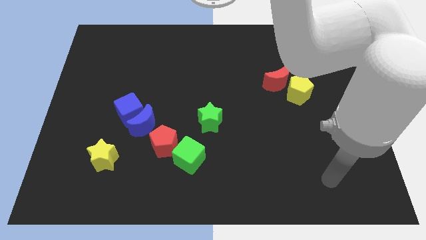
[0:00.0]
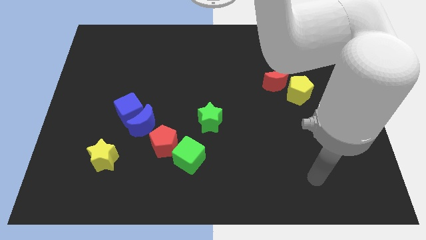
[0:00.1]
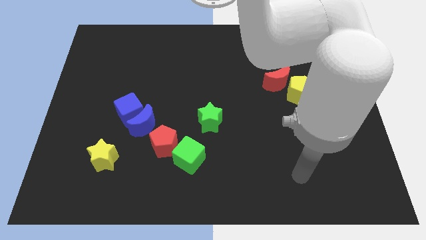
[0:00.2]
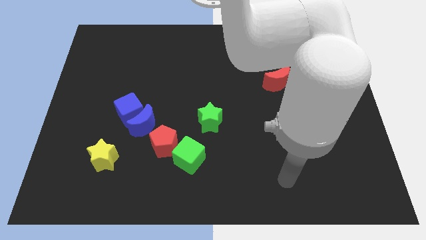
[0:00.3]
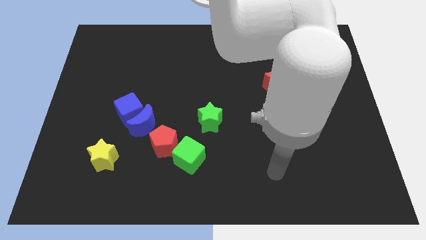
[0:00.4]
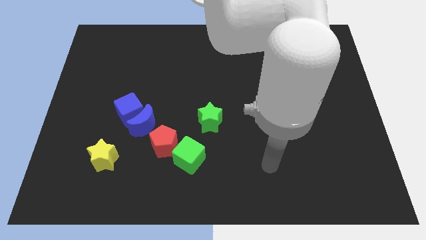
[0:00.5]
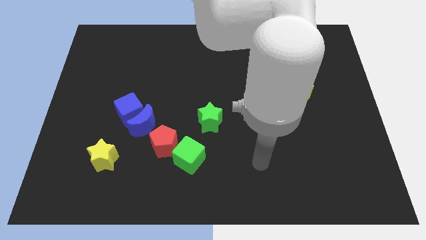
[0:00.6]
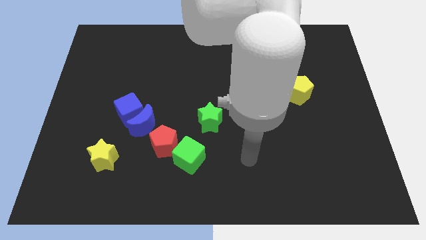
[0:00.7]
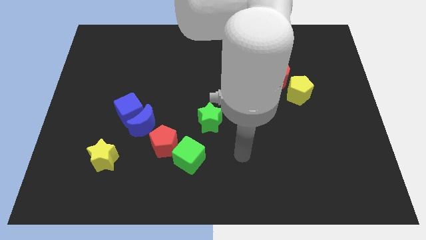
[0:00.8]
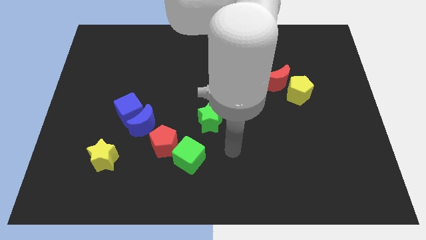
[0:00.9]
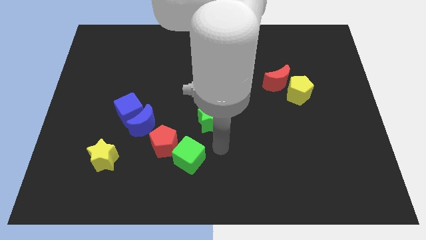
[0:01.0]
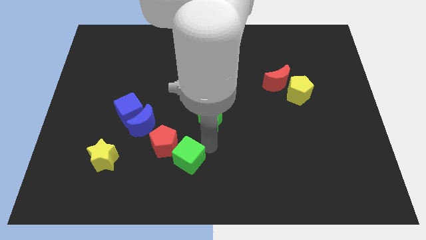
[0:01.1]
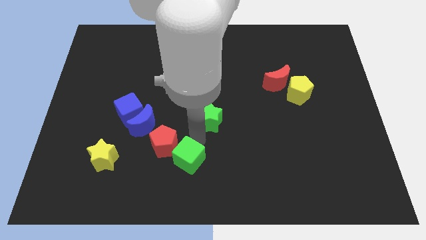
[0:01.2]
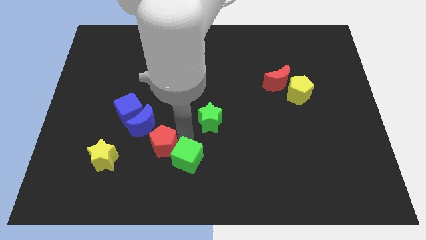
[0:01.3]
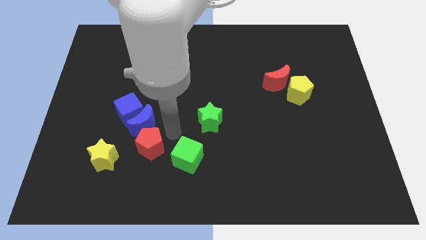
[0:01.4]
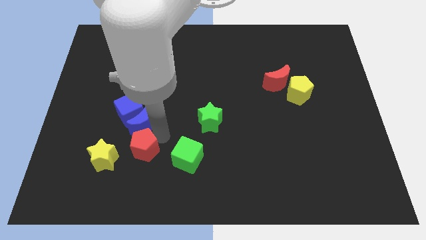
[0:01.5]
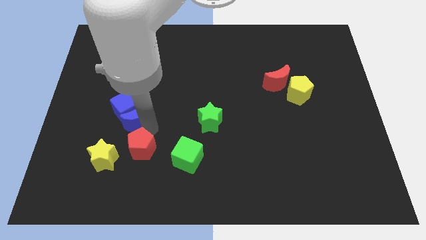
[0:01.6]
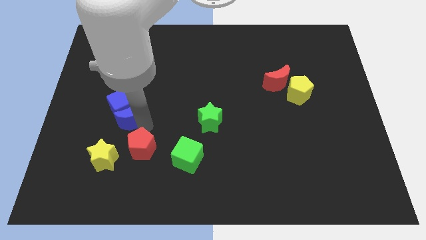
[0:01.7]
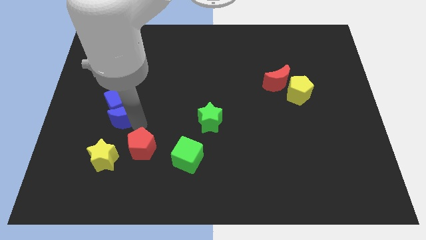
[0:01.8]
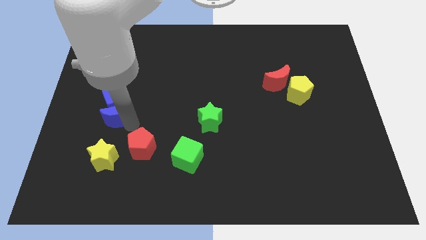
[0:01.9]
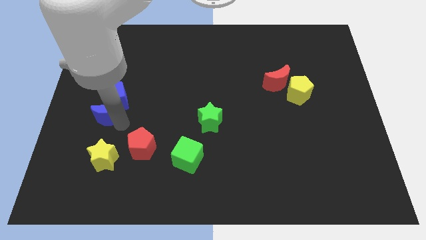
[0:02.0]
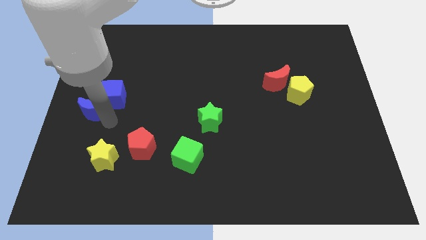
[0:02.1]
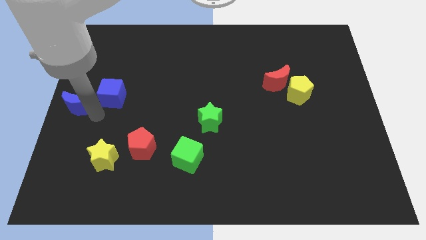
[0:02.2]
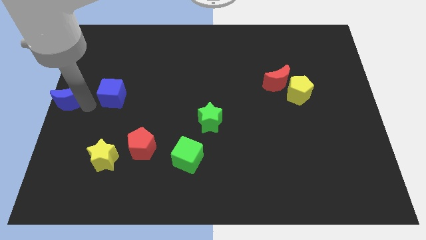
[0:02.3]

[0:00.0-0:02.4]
move the blue cube away from the blue moon

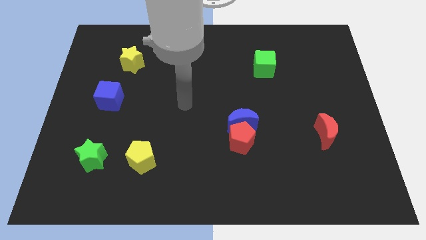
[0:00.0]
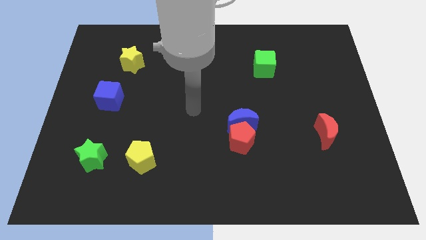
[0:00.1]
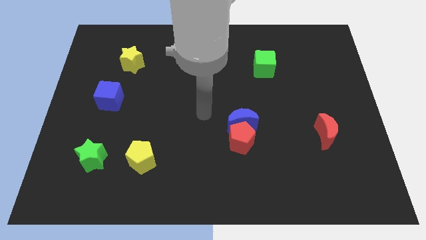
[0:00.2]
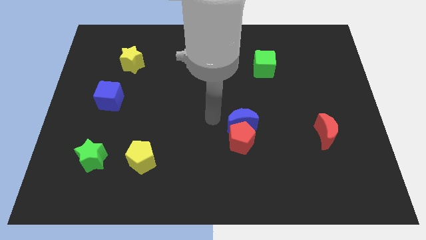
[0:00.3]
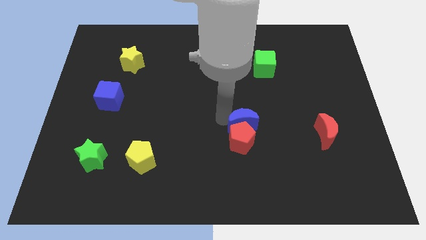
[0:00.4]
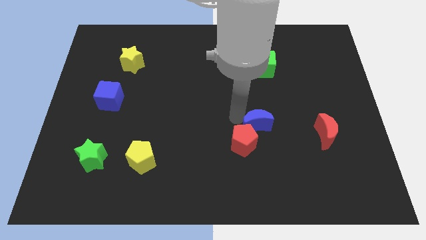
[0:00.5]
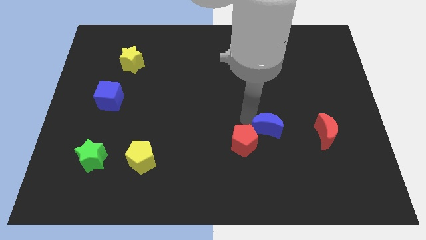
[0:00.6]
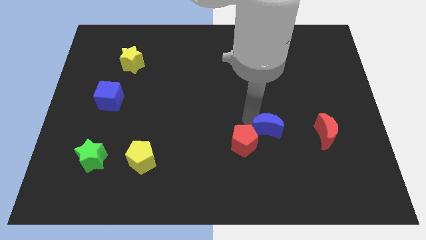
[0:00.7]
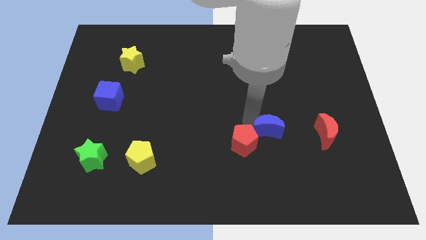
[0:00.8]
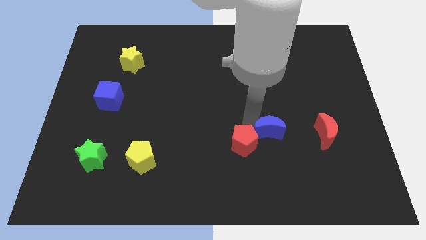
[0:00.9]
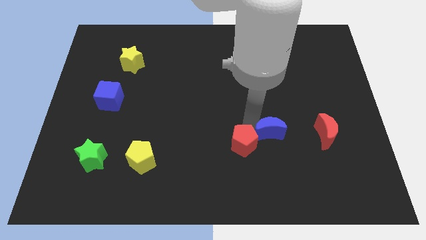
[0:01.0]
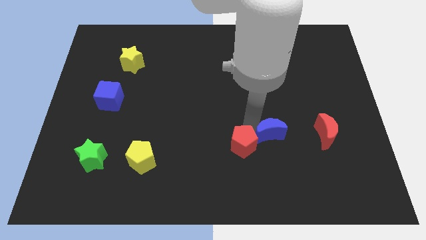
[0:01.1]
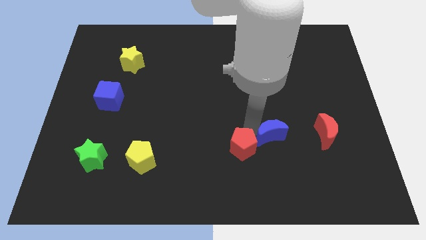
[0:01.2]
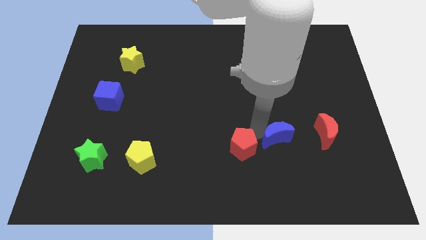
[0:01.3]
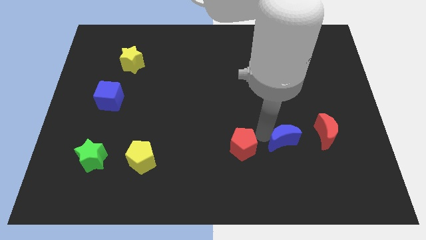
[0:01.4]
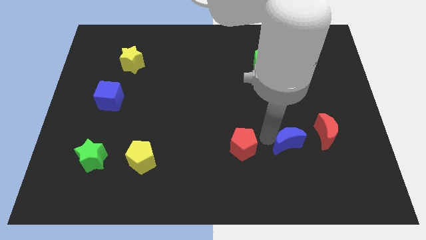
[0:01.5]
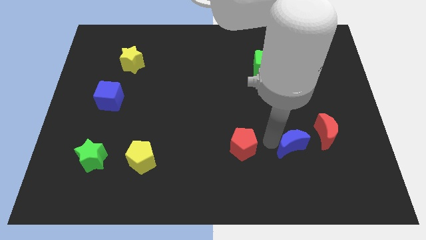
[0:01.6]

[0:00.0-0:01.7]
pull the red pentagon apart from the blue moon

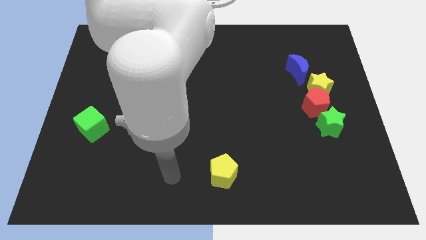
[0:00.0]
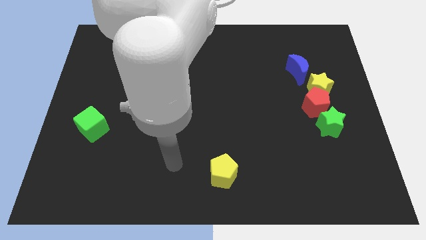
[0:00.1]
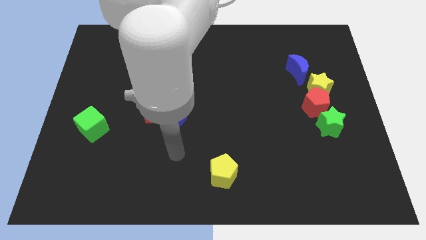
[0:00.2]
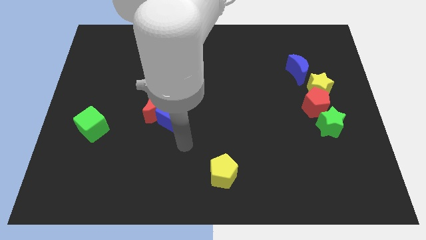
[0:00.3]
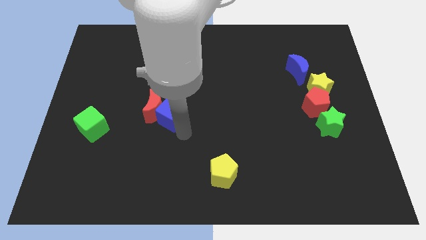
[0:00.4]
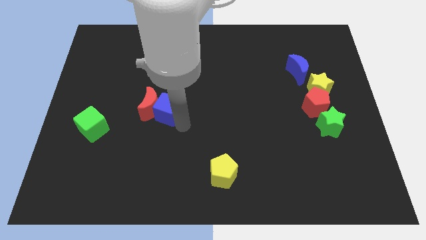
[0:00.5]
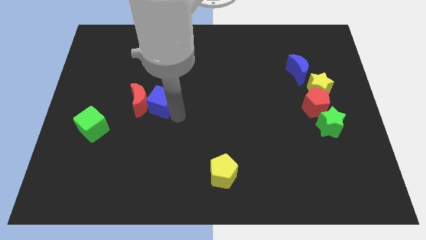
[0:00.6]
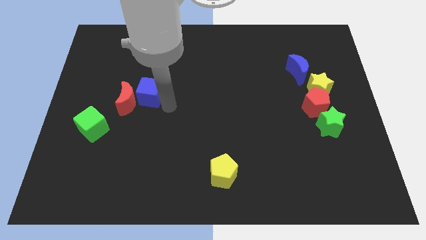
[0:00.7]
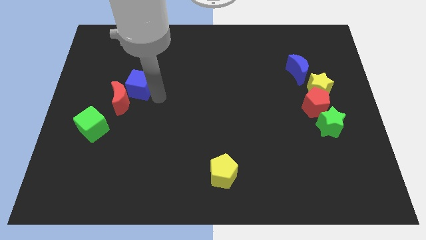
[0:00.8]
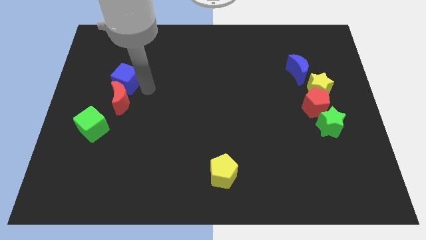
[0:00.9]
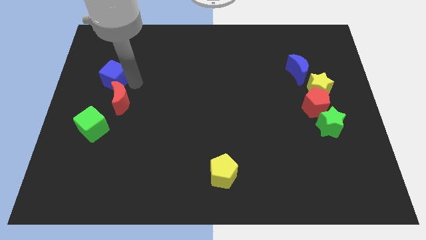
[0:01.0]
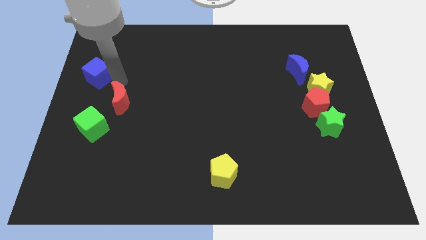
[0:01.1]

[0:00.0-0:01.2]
pull the red moon apart from the blue cube

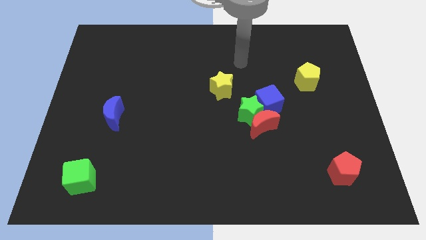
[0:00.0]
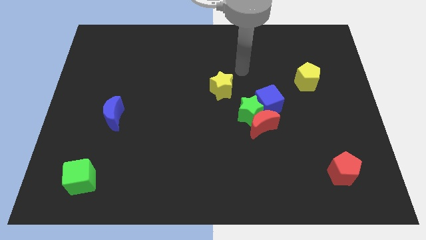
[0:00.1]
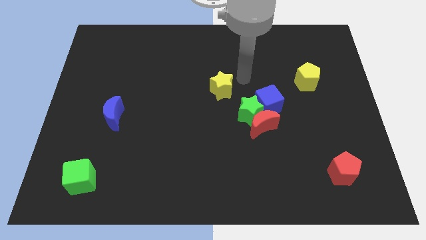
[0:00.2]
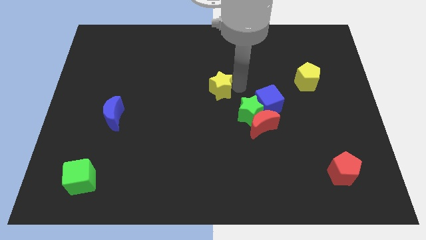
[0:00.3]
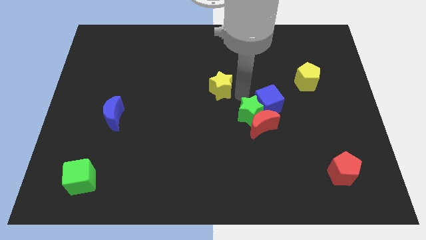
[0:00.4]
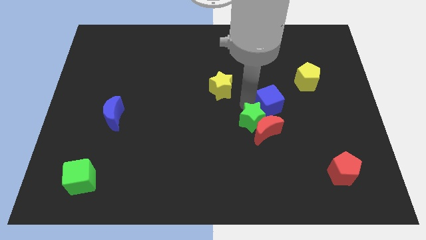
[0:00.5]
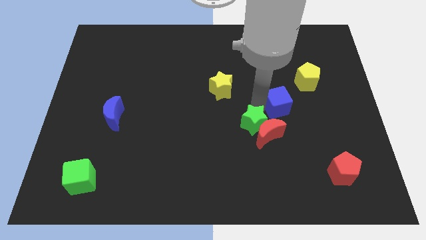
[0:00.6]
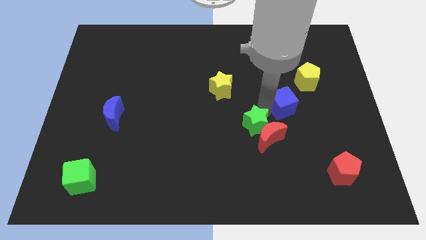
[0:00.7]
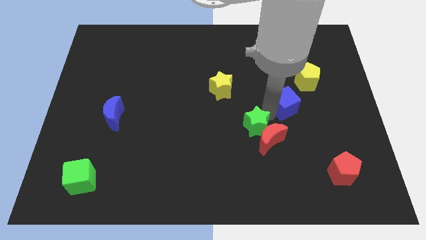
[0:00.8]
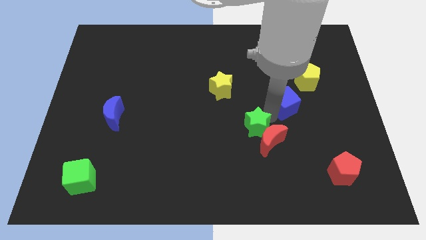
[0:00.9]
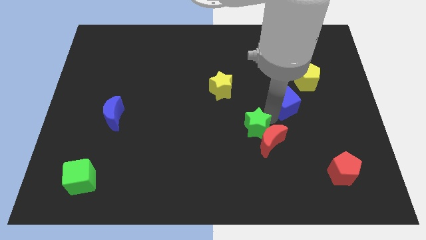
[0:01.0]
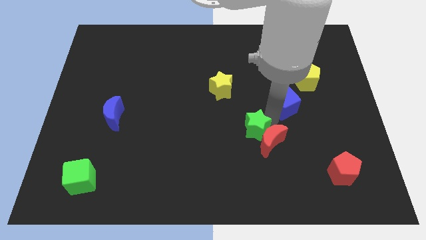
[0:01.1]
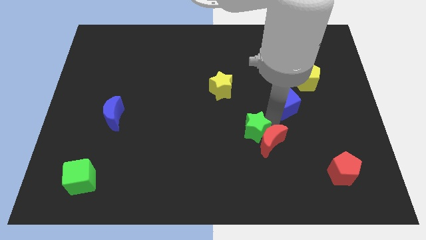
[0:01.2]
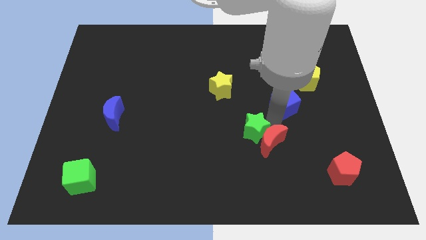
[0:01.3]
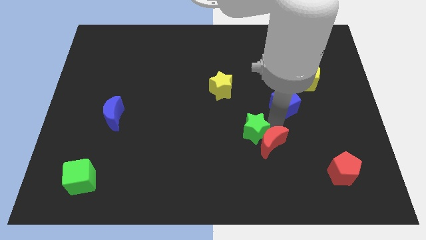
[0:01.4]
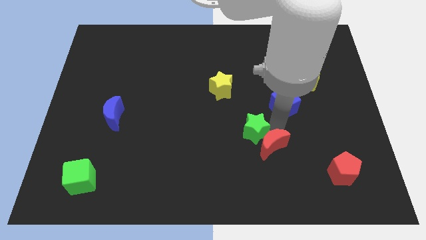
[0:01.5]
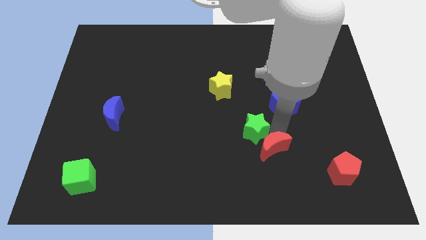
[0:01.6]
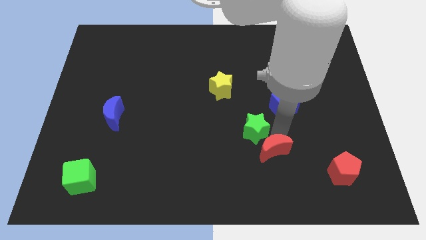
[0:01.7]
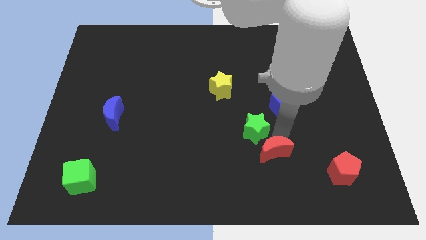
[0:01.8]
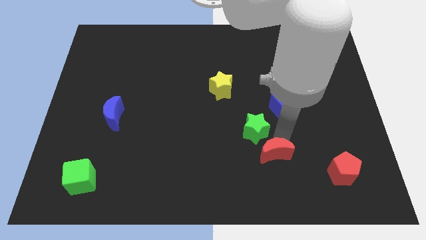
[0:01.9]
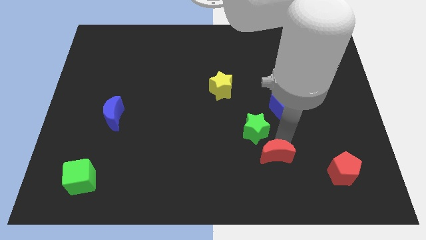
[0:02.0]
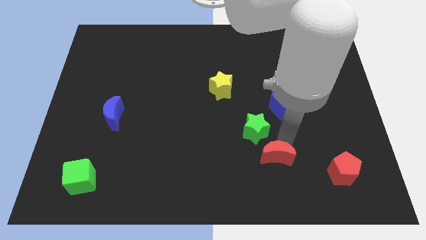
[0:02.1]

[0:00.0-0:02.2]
pull the red moon apart from the green star and blue cube

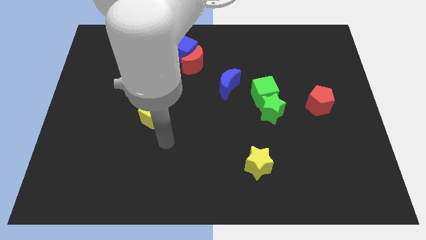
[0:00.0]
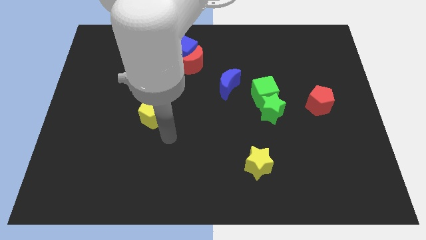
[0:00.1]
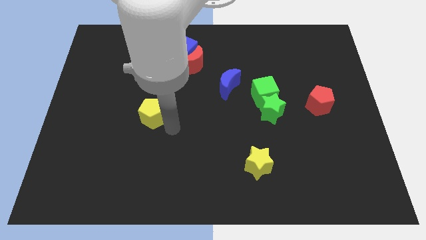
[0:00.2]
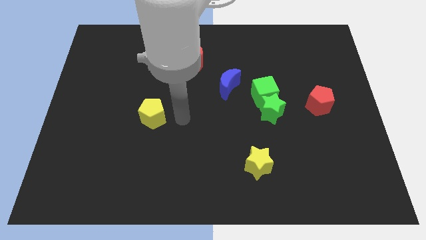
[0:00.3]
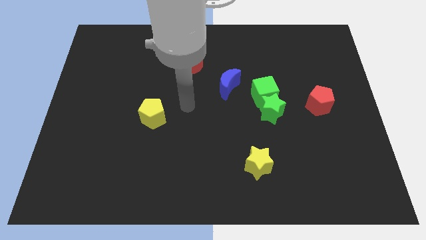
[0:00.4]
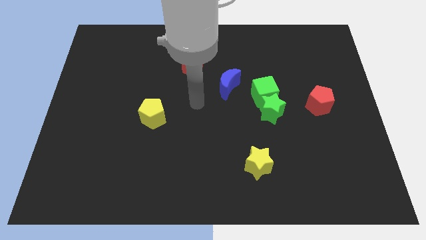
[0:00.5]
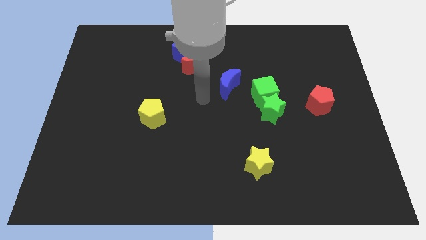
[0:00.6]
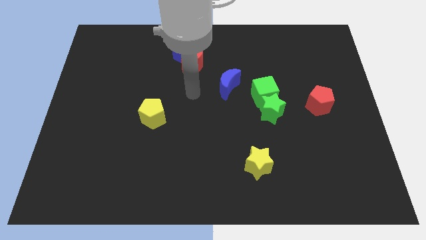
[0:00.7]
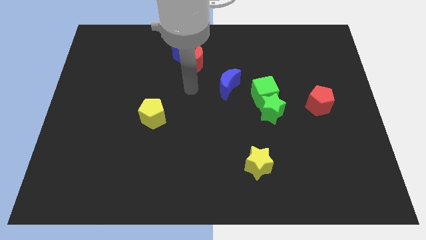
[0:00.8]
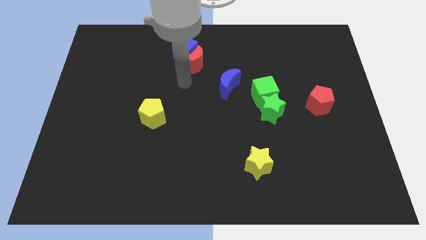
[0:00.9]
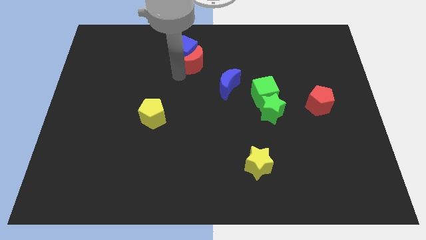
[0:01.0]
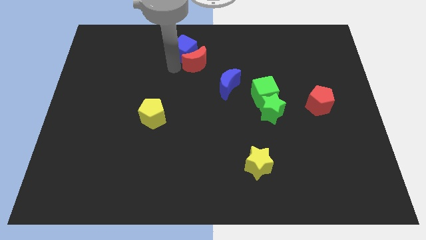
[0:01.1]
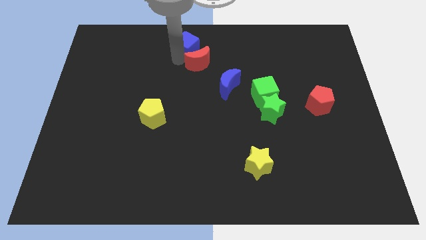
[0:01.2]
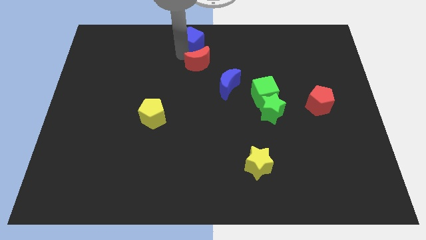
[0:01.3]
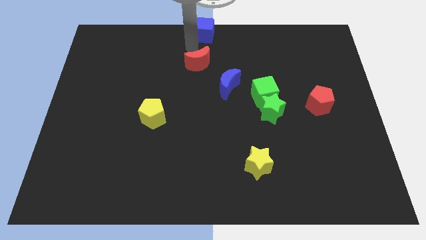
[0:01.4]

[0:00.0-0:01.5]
move the red moon away from the blue cube

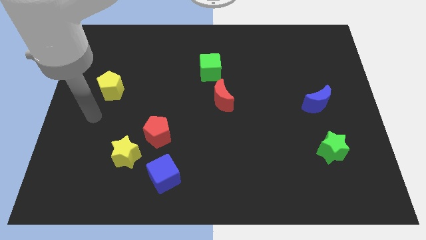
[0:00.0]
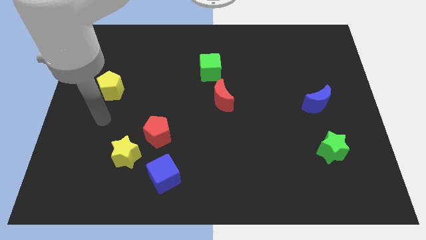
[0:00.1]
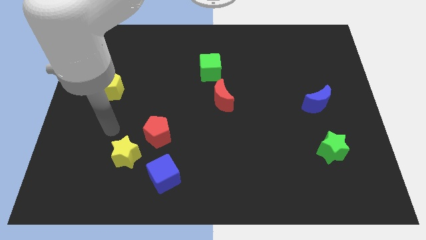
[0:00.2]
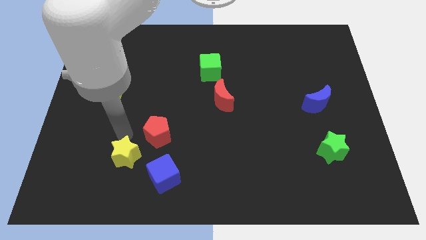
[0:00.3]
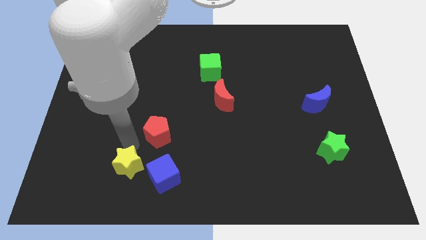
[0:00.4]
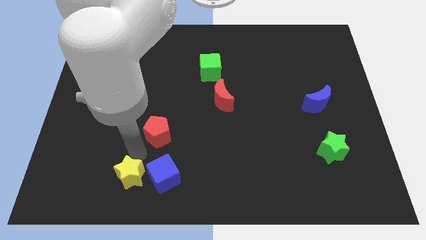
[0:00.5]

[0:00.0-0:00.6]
pull the red pentagon apart from the yellow star
